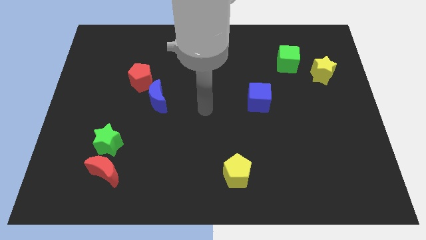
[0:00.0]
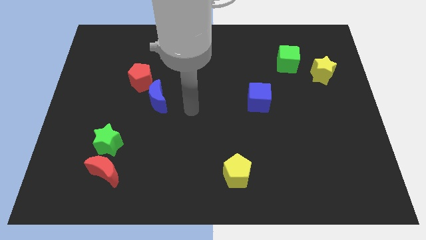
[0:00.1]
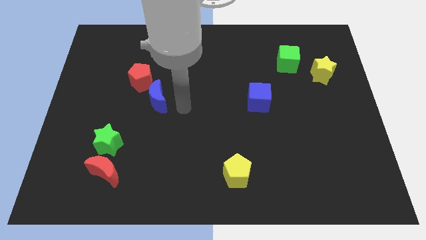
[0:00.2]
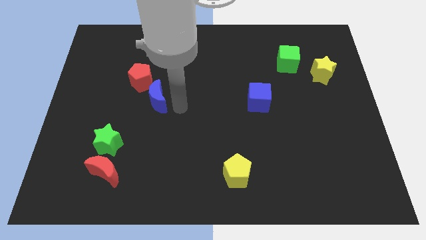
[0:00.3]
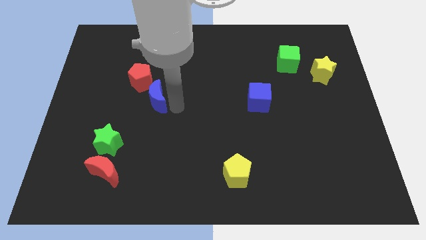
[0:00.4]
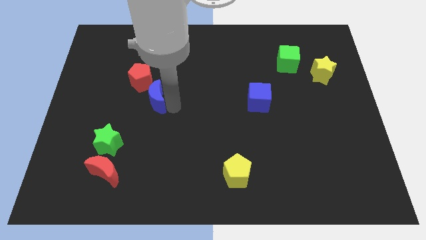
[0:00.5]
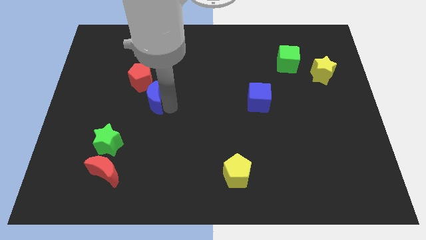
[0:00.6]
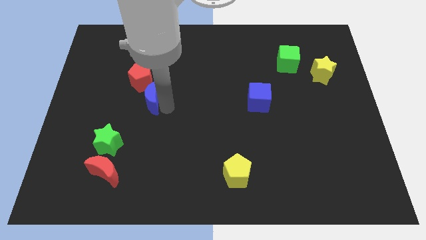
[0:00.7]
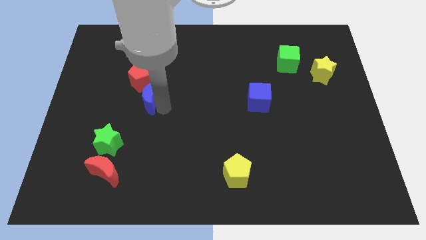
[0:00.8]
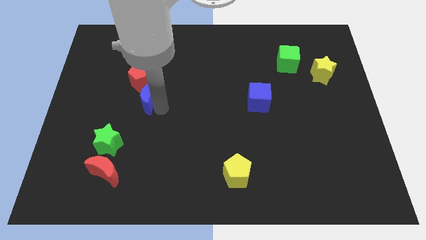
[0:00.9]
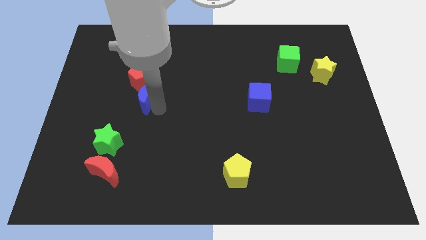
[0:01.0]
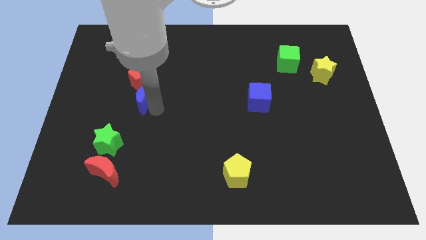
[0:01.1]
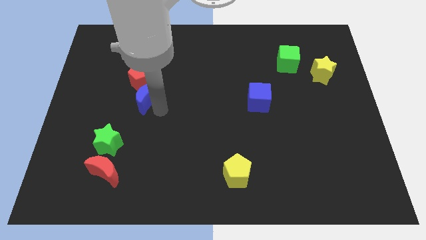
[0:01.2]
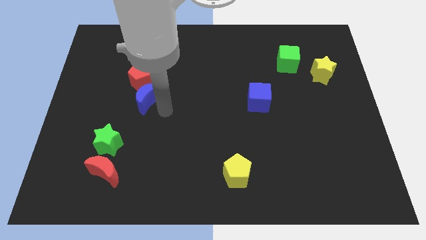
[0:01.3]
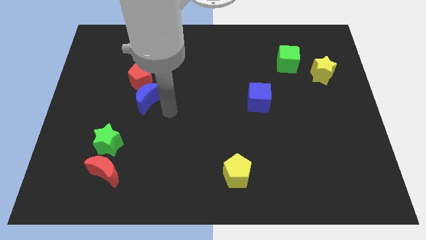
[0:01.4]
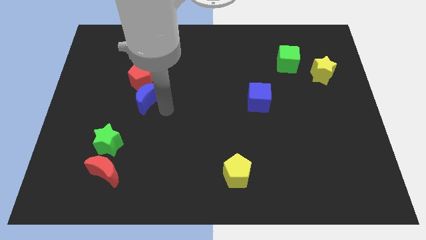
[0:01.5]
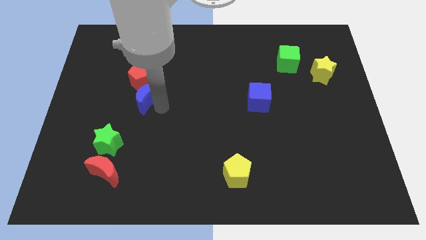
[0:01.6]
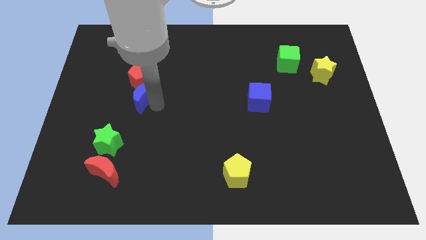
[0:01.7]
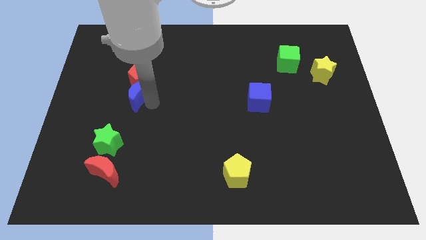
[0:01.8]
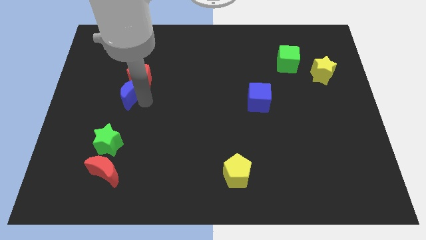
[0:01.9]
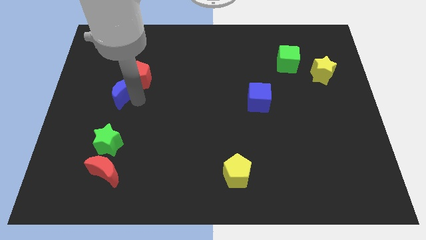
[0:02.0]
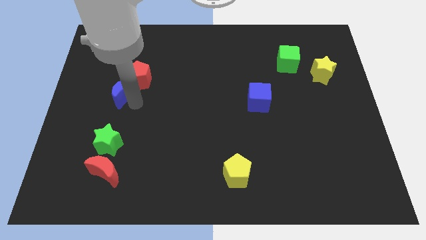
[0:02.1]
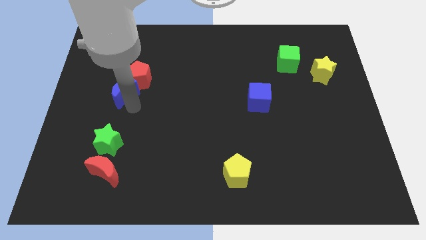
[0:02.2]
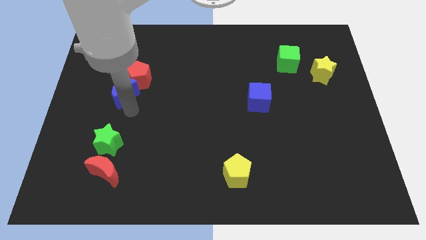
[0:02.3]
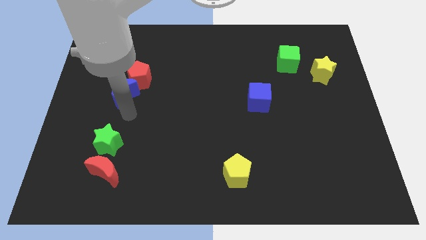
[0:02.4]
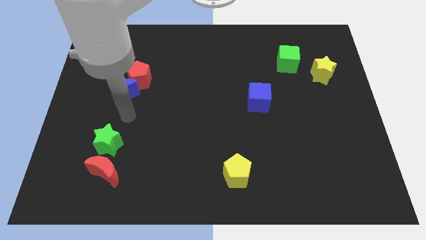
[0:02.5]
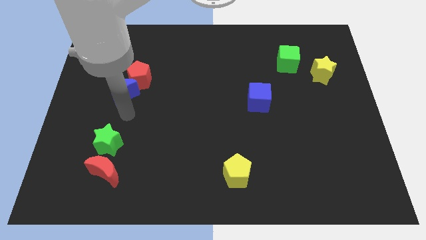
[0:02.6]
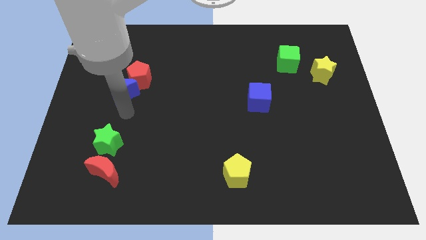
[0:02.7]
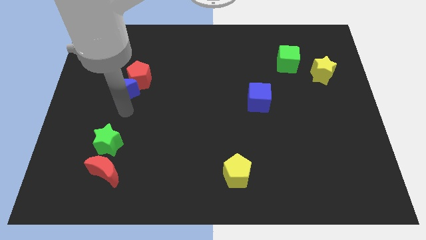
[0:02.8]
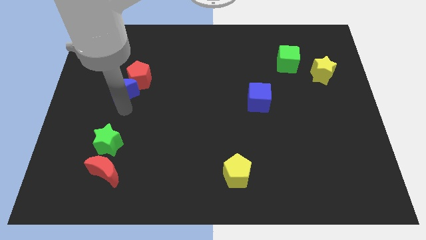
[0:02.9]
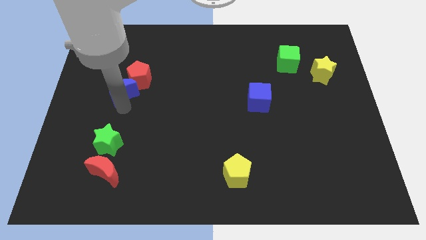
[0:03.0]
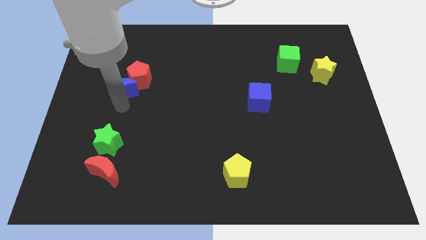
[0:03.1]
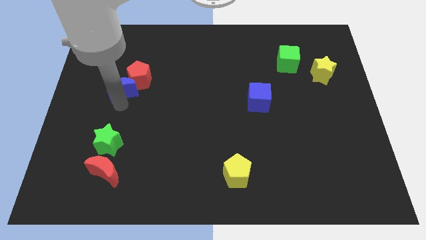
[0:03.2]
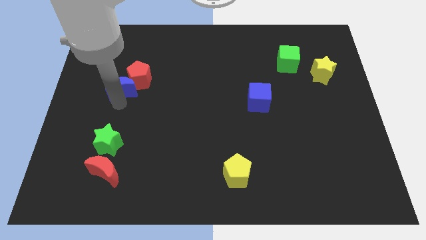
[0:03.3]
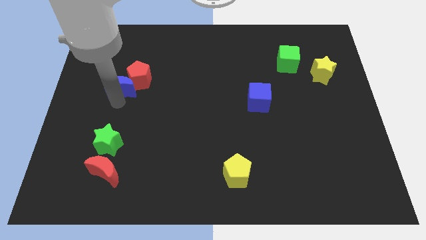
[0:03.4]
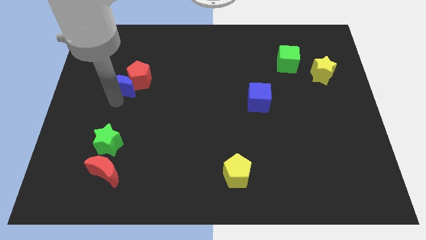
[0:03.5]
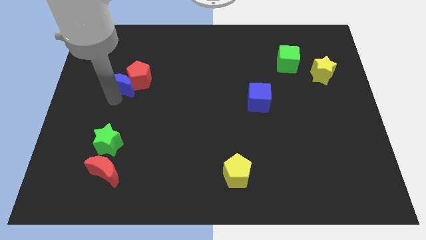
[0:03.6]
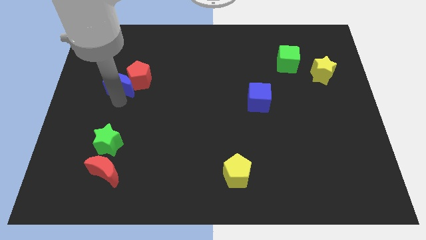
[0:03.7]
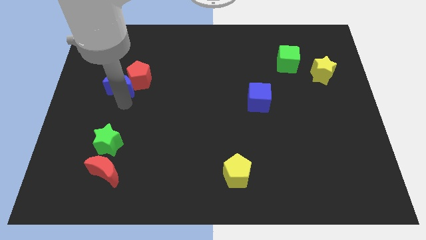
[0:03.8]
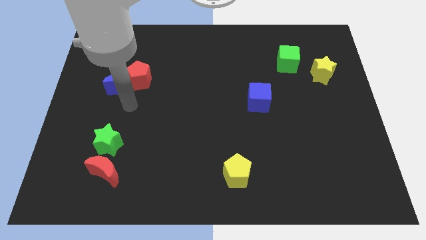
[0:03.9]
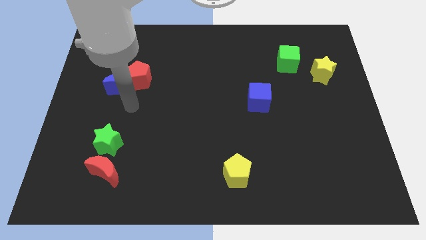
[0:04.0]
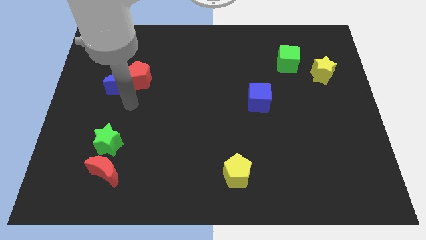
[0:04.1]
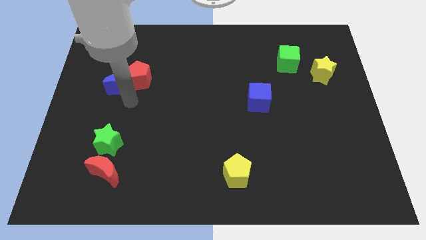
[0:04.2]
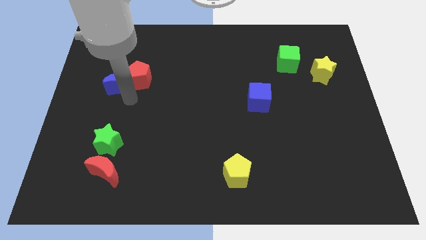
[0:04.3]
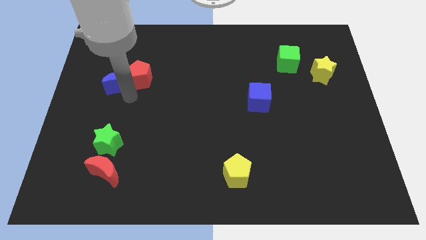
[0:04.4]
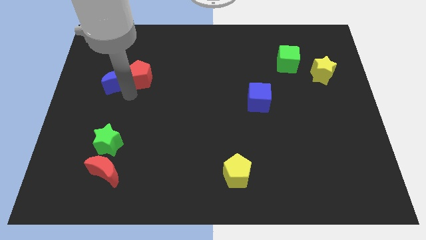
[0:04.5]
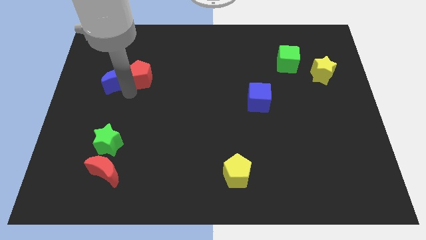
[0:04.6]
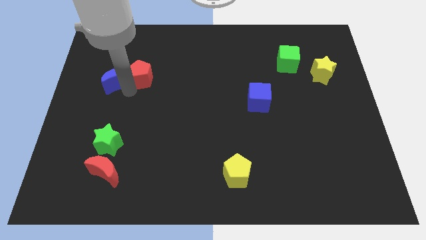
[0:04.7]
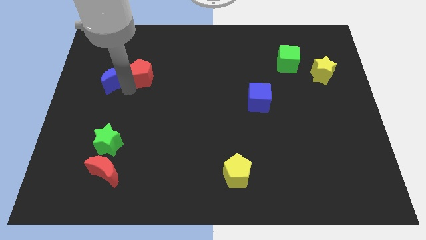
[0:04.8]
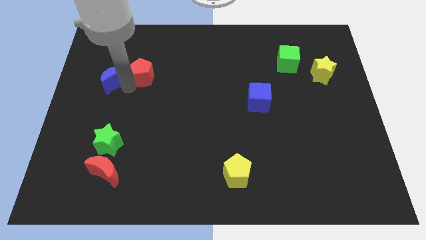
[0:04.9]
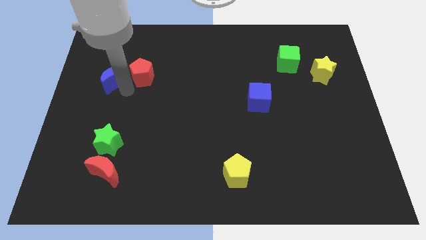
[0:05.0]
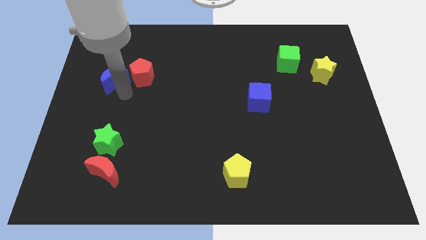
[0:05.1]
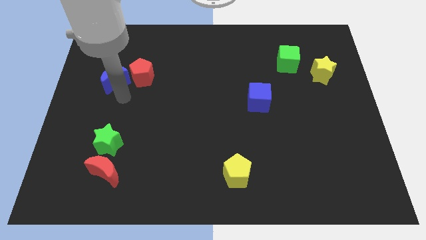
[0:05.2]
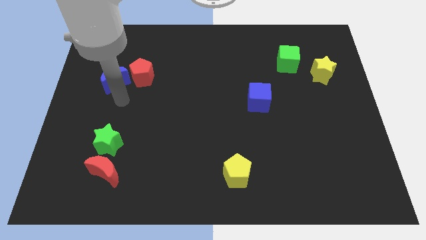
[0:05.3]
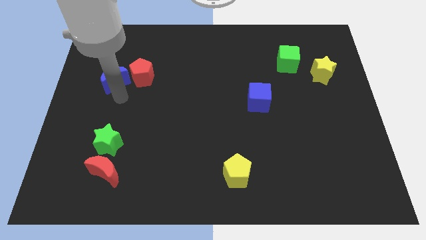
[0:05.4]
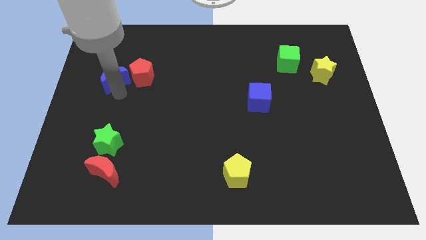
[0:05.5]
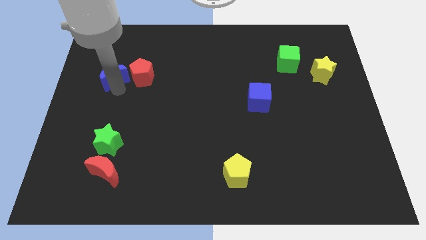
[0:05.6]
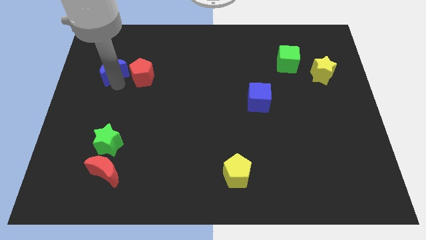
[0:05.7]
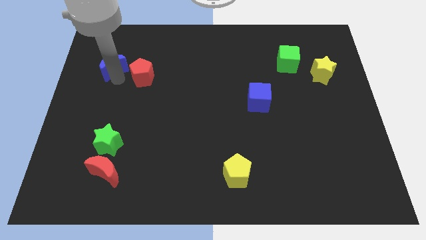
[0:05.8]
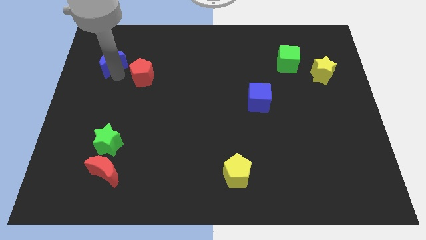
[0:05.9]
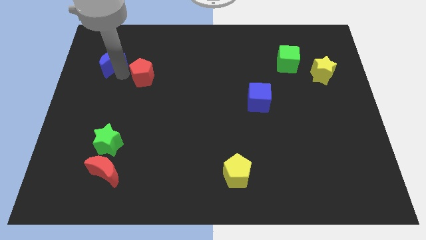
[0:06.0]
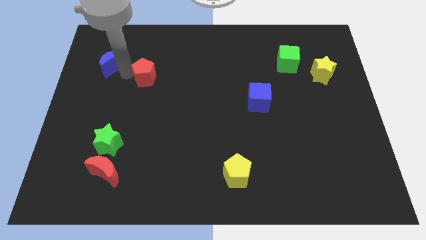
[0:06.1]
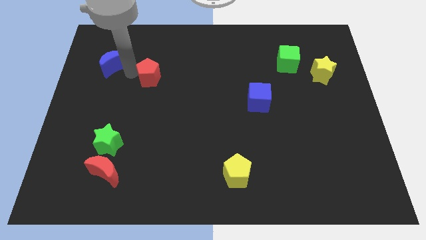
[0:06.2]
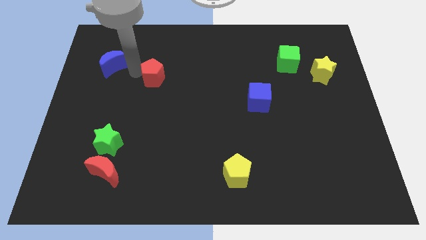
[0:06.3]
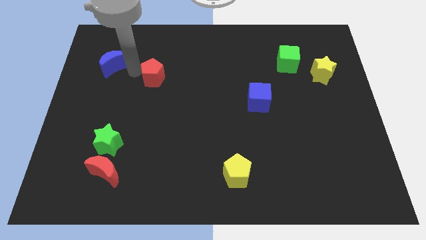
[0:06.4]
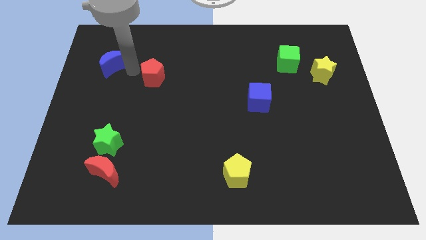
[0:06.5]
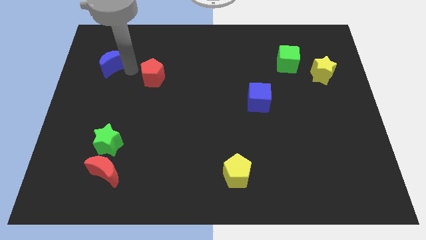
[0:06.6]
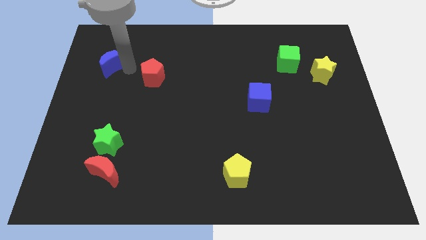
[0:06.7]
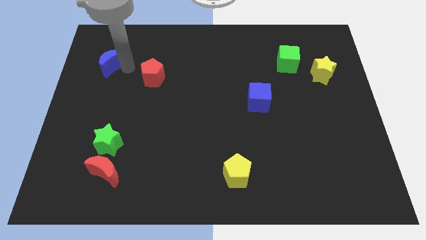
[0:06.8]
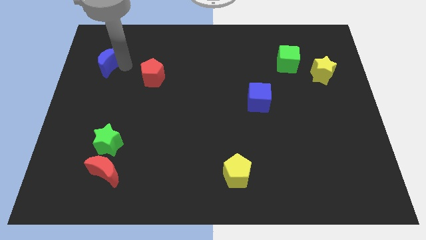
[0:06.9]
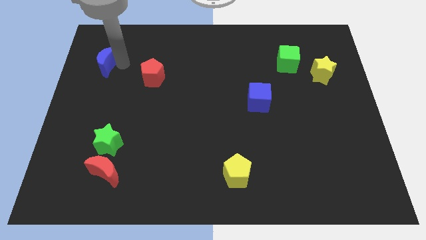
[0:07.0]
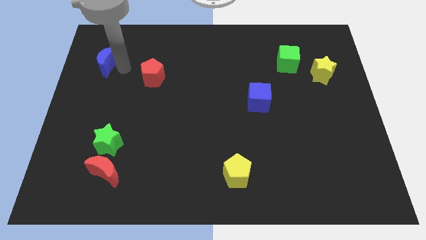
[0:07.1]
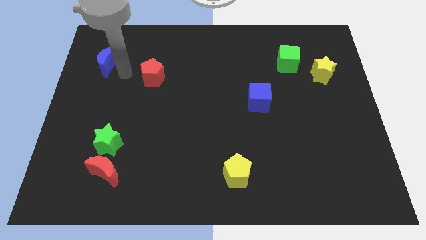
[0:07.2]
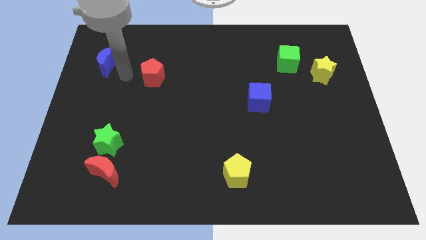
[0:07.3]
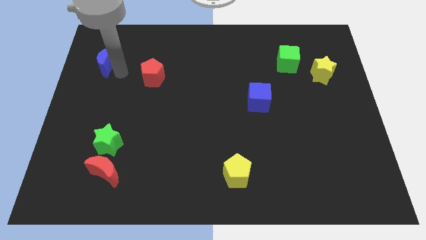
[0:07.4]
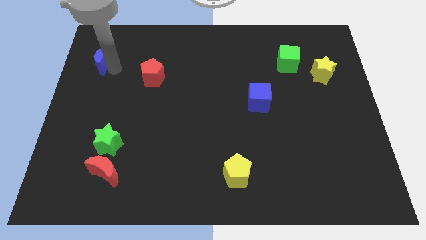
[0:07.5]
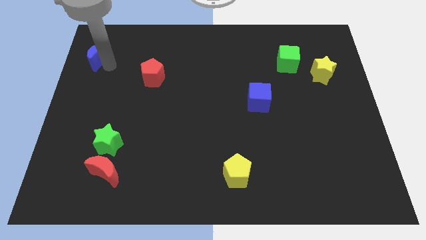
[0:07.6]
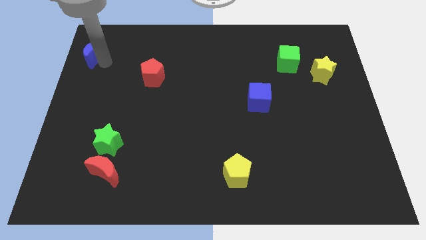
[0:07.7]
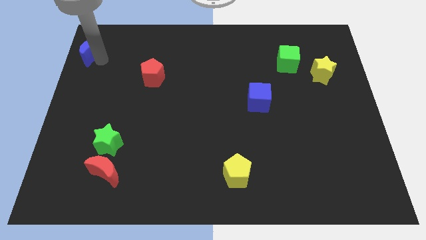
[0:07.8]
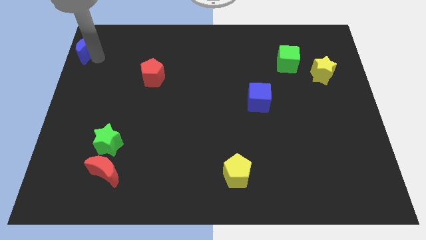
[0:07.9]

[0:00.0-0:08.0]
move the blue moon to the top left
